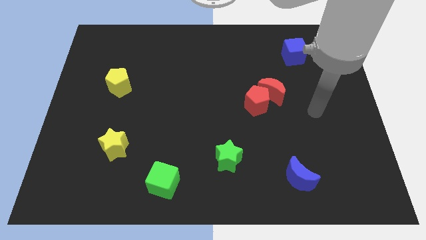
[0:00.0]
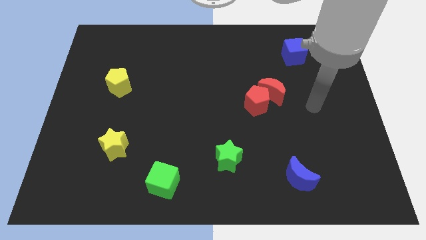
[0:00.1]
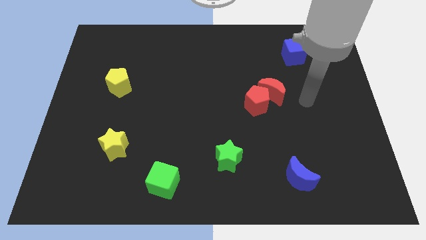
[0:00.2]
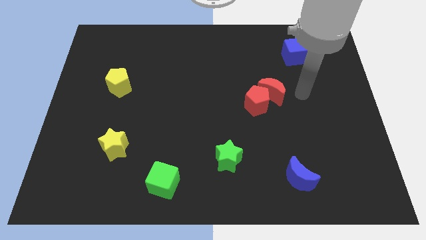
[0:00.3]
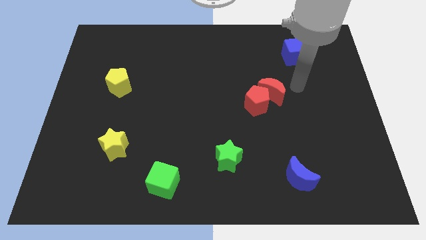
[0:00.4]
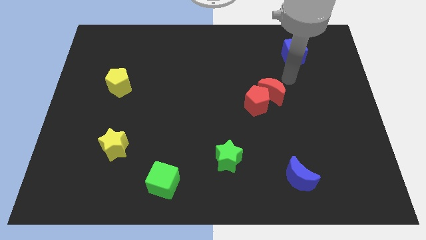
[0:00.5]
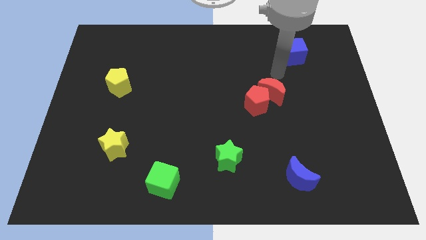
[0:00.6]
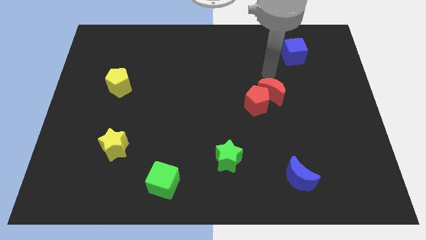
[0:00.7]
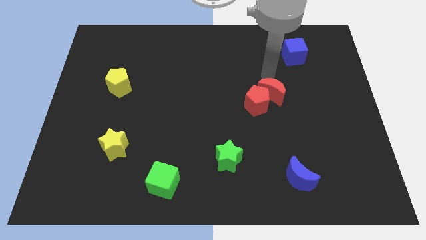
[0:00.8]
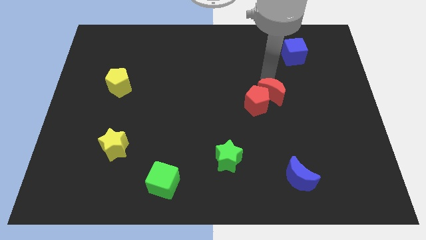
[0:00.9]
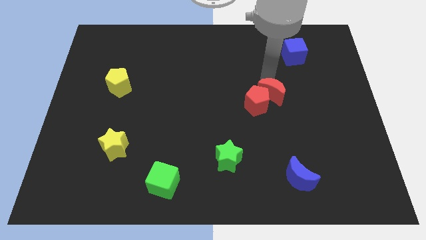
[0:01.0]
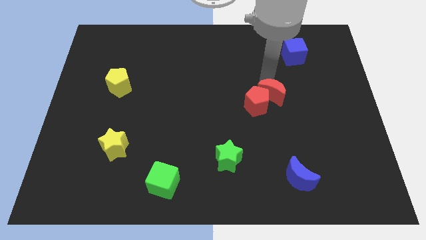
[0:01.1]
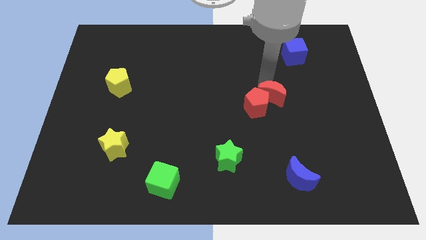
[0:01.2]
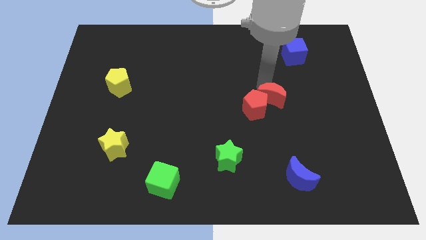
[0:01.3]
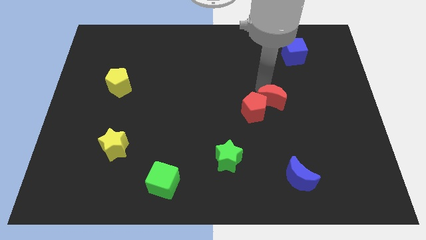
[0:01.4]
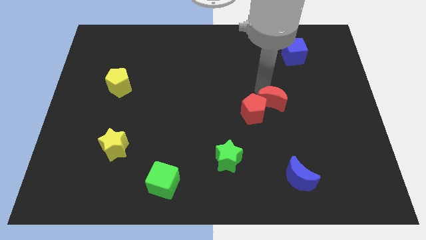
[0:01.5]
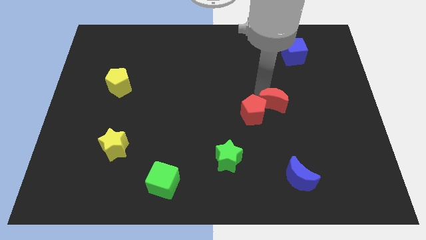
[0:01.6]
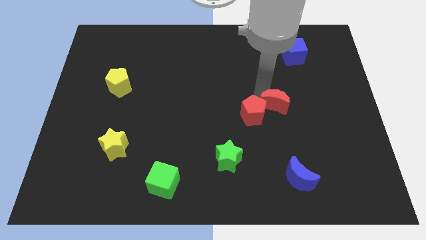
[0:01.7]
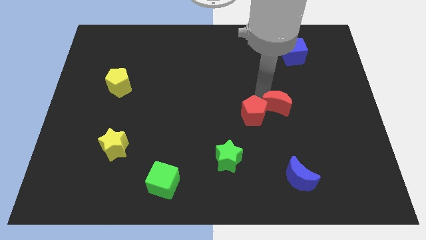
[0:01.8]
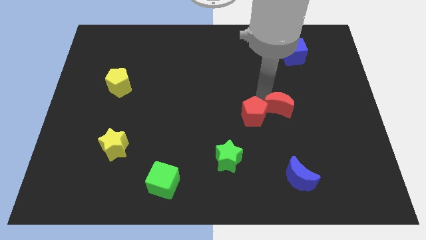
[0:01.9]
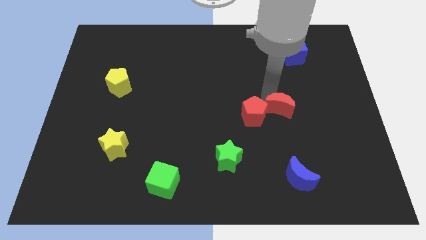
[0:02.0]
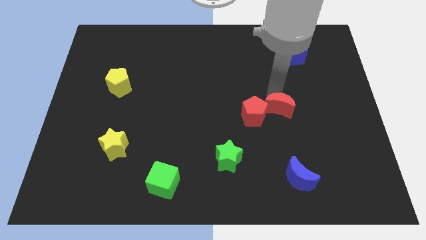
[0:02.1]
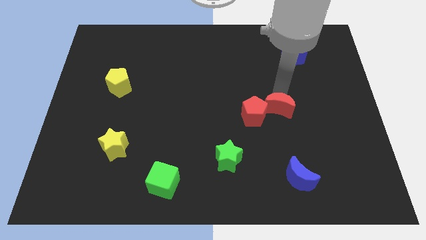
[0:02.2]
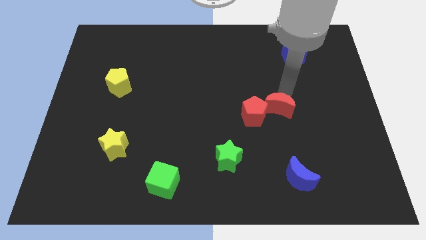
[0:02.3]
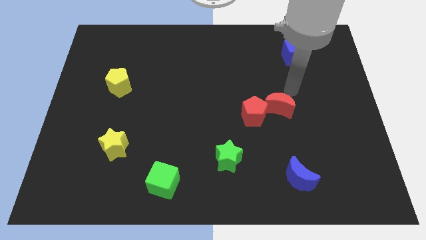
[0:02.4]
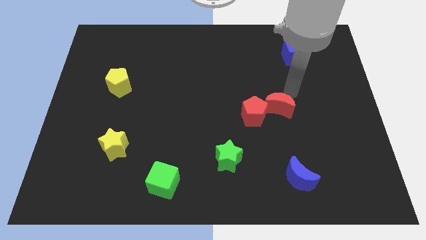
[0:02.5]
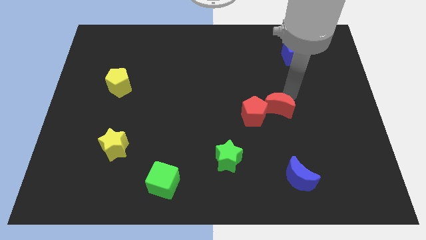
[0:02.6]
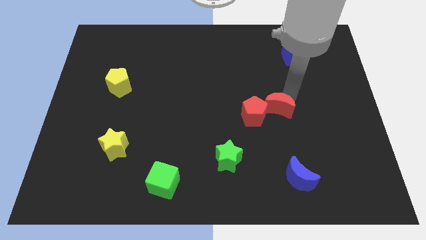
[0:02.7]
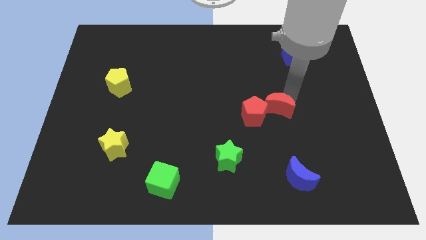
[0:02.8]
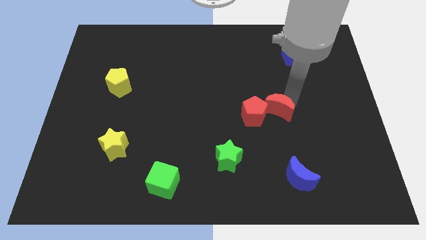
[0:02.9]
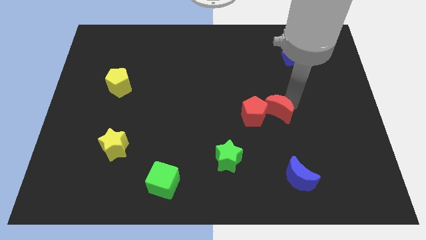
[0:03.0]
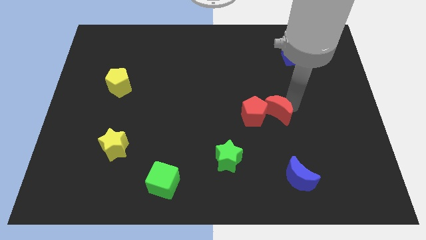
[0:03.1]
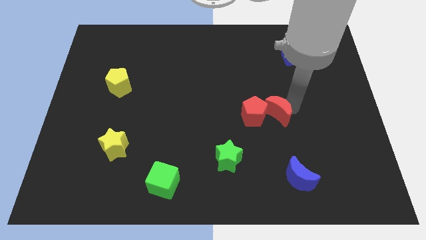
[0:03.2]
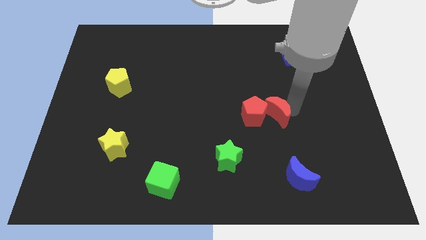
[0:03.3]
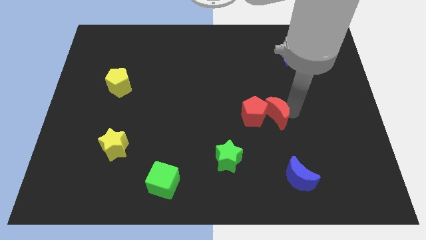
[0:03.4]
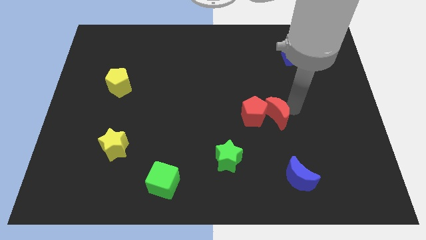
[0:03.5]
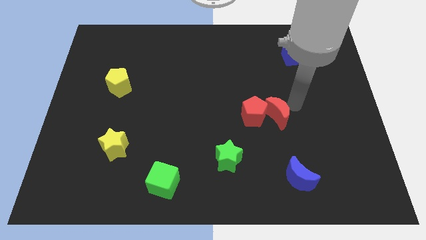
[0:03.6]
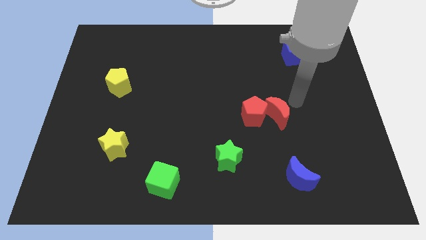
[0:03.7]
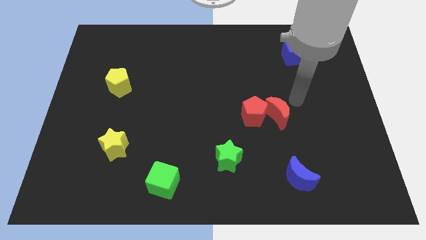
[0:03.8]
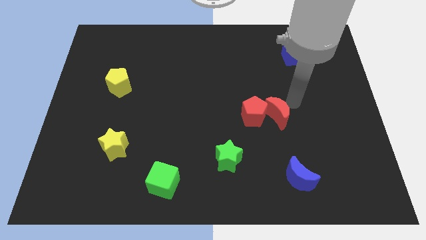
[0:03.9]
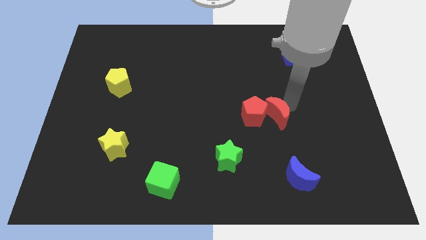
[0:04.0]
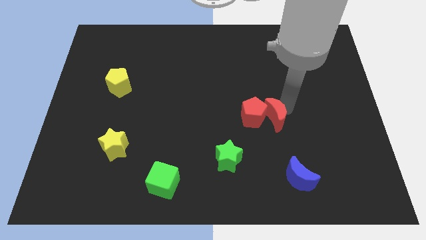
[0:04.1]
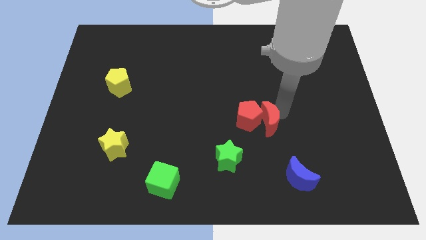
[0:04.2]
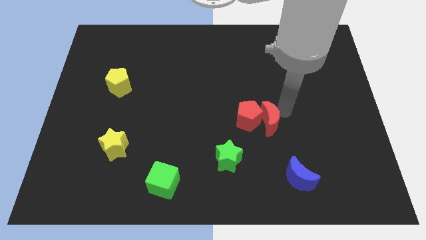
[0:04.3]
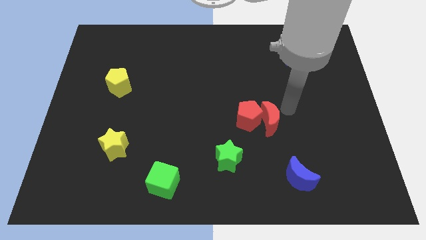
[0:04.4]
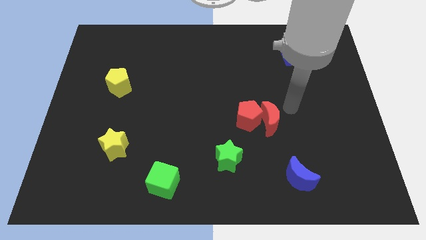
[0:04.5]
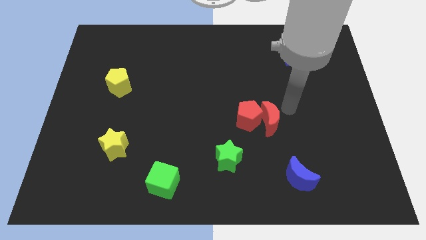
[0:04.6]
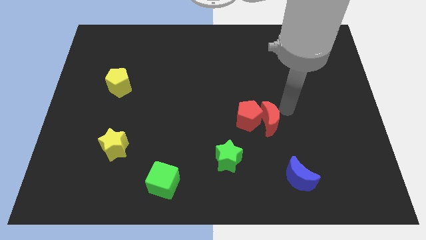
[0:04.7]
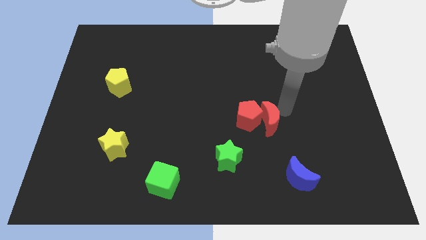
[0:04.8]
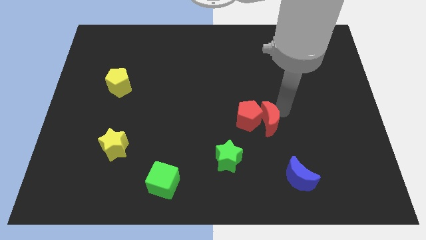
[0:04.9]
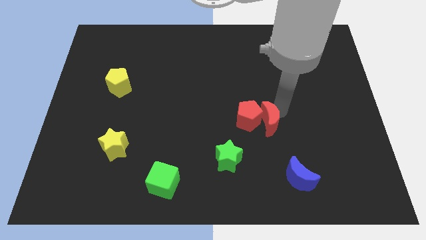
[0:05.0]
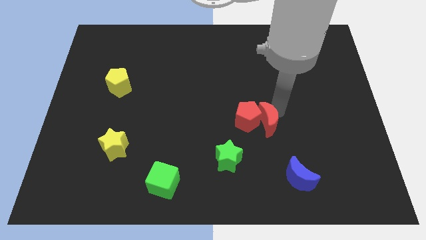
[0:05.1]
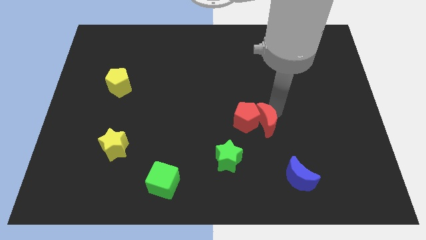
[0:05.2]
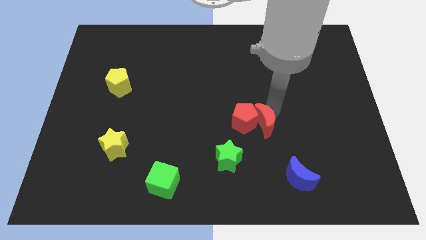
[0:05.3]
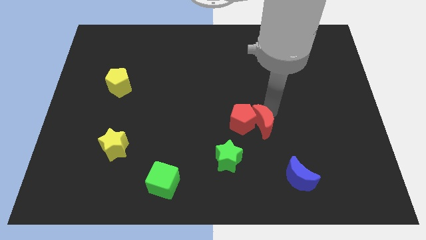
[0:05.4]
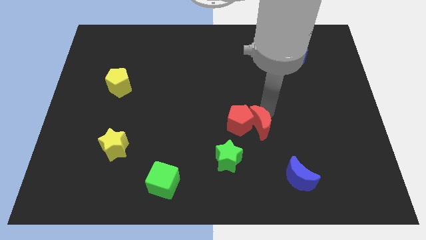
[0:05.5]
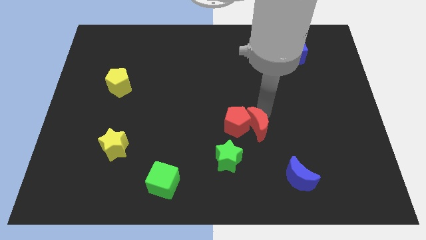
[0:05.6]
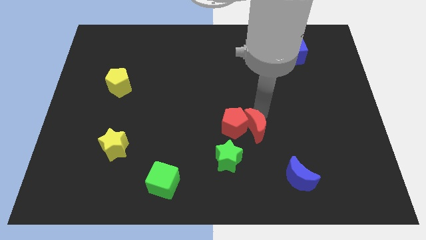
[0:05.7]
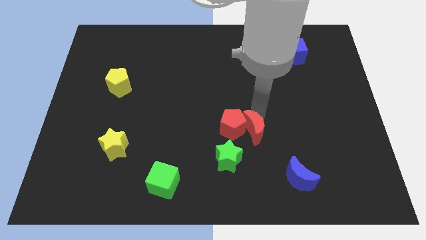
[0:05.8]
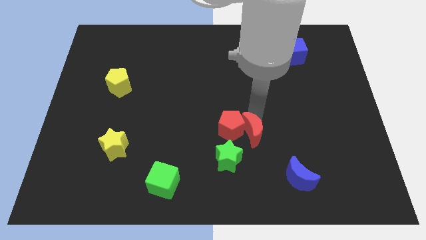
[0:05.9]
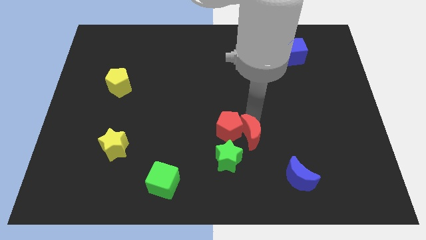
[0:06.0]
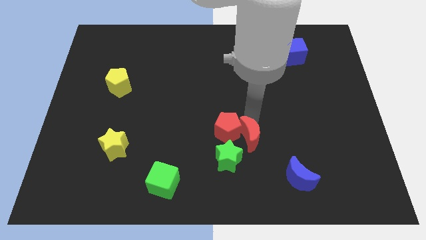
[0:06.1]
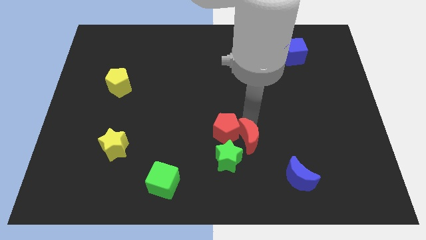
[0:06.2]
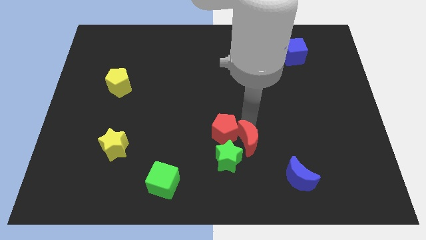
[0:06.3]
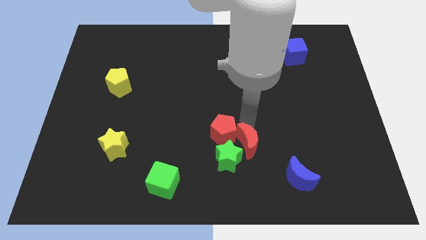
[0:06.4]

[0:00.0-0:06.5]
move the red moon towards the green star

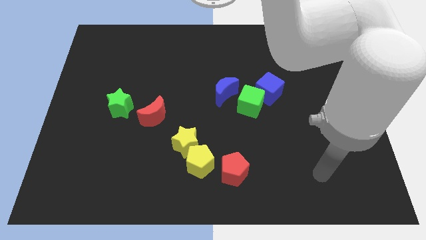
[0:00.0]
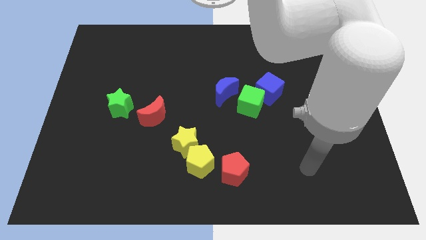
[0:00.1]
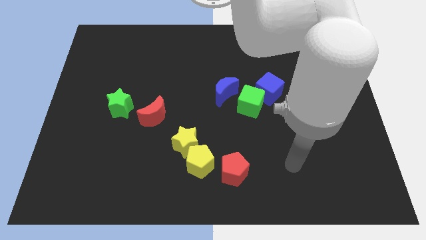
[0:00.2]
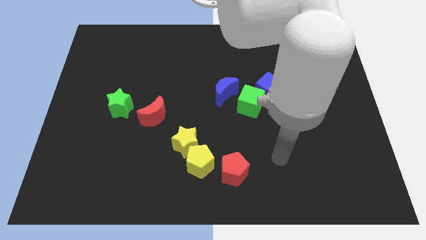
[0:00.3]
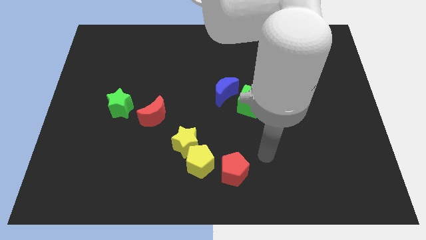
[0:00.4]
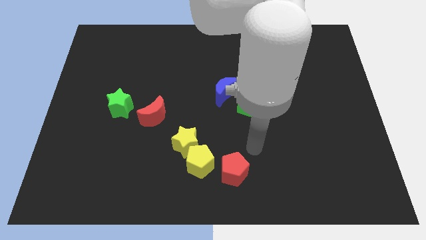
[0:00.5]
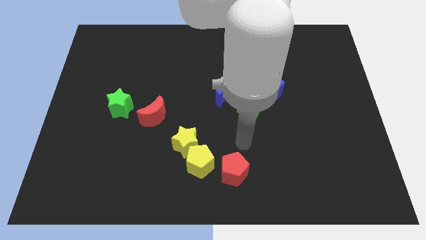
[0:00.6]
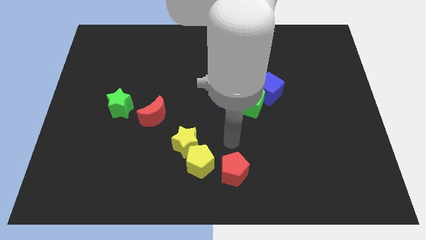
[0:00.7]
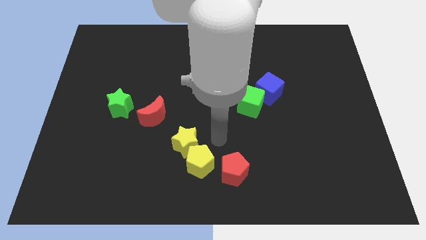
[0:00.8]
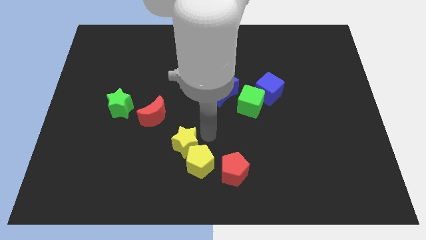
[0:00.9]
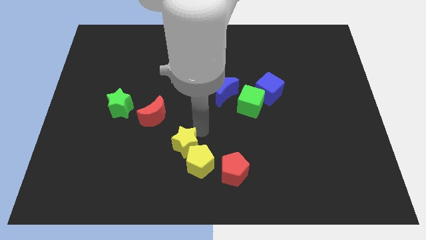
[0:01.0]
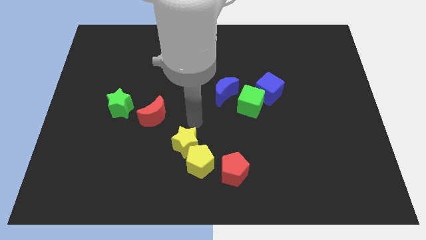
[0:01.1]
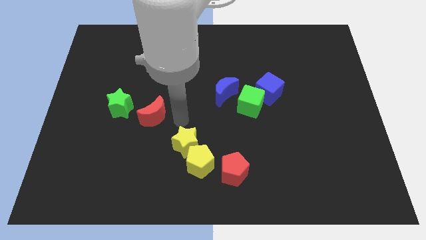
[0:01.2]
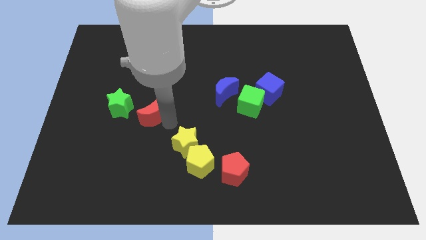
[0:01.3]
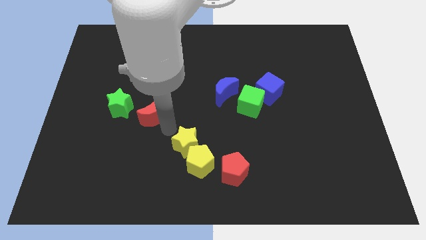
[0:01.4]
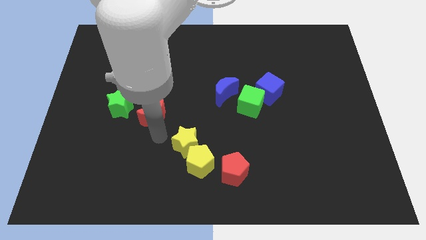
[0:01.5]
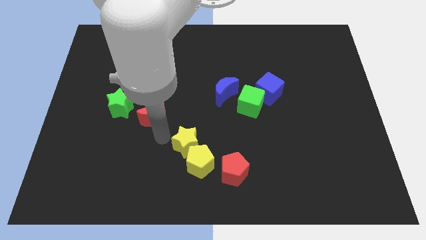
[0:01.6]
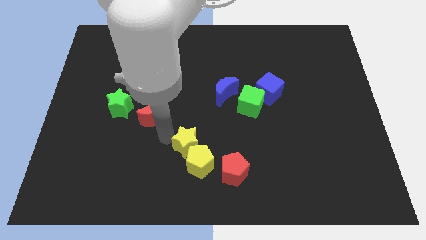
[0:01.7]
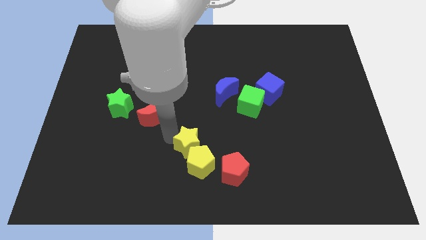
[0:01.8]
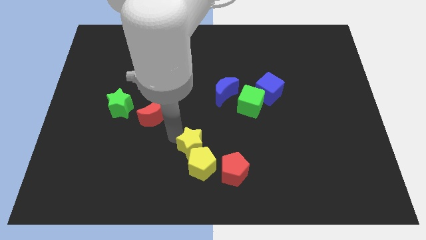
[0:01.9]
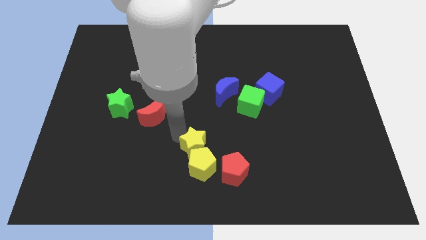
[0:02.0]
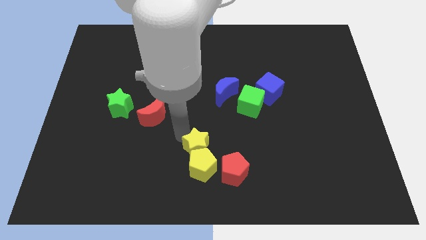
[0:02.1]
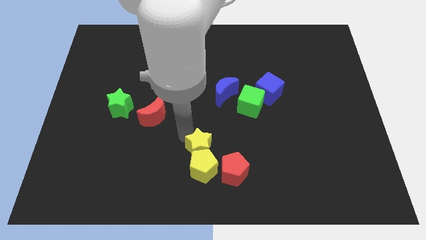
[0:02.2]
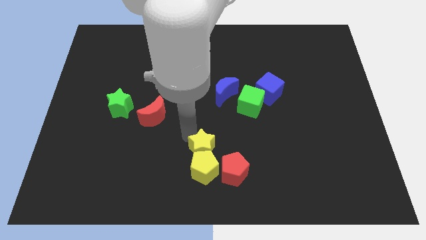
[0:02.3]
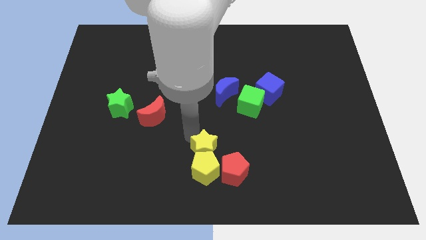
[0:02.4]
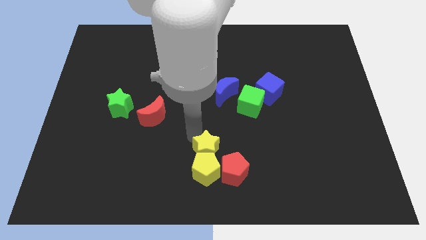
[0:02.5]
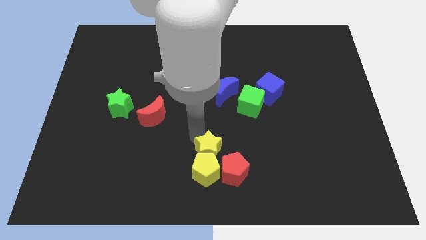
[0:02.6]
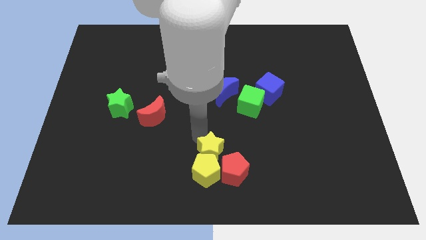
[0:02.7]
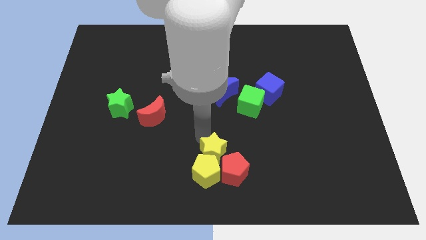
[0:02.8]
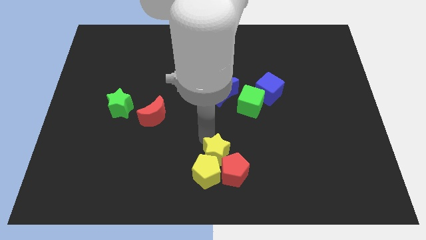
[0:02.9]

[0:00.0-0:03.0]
put the yellow star close to the red pentagon
